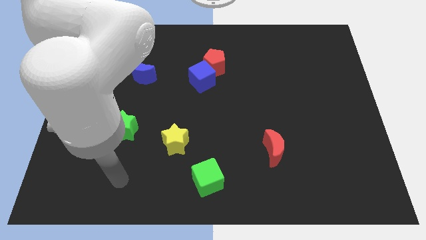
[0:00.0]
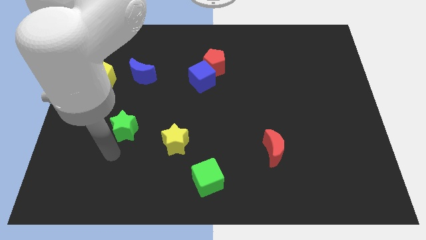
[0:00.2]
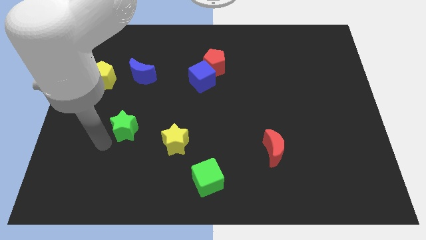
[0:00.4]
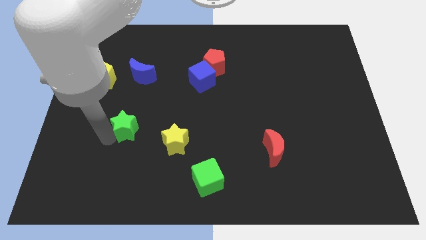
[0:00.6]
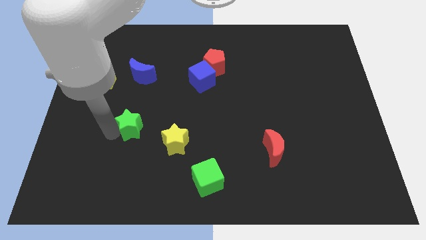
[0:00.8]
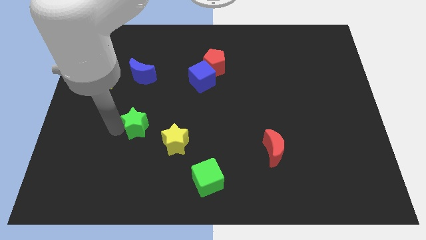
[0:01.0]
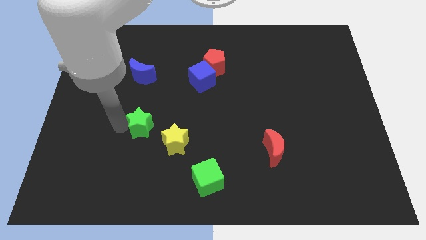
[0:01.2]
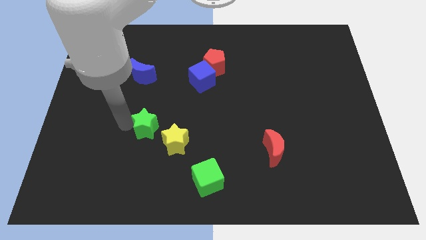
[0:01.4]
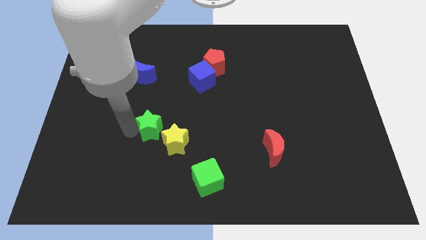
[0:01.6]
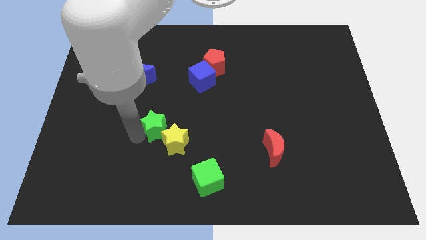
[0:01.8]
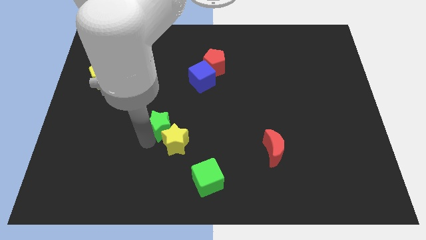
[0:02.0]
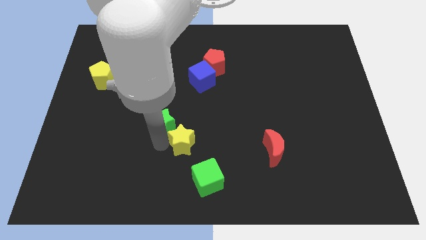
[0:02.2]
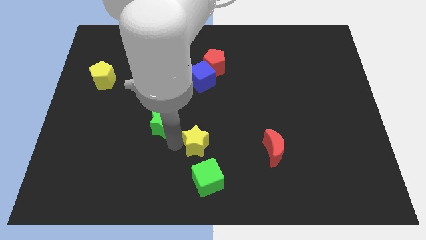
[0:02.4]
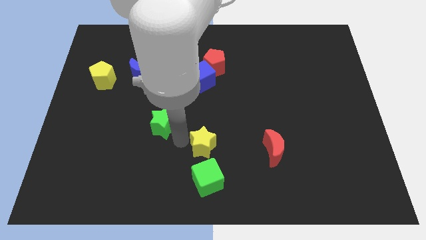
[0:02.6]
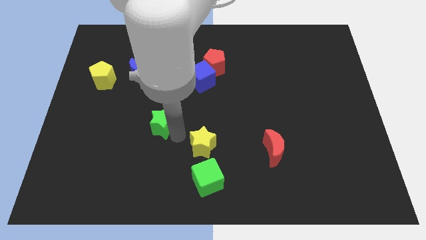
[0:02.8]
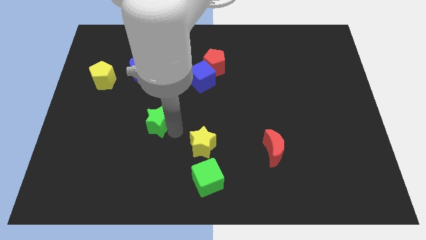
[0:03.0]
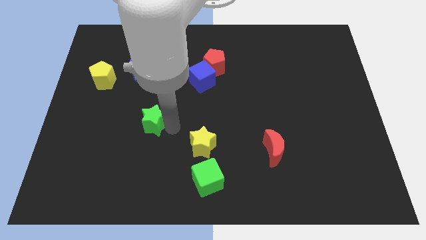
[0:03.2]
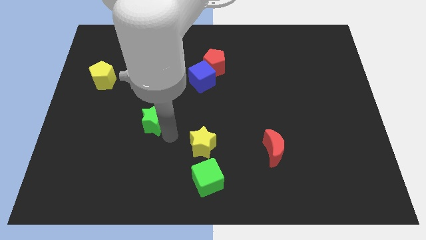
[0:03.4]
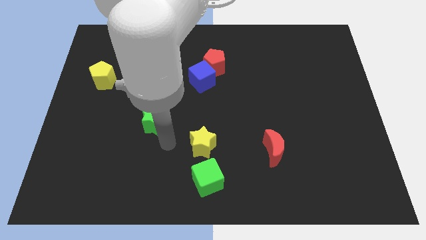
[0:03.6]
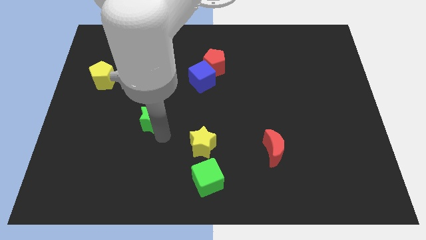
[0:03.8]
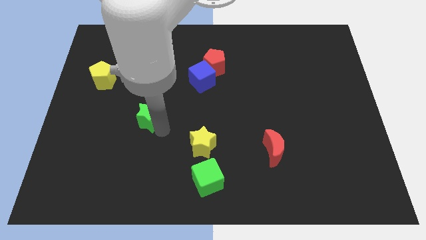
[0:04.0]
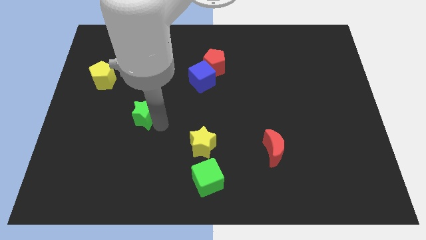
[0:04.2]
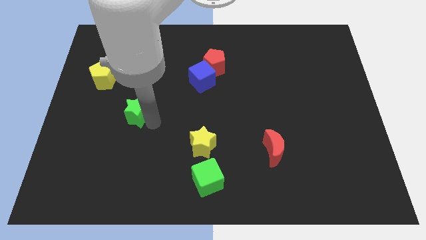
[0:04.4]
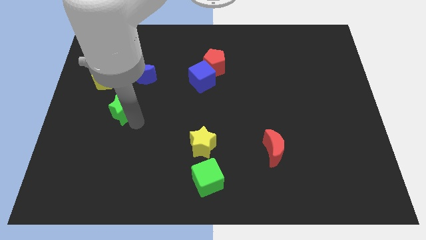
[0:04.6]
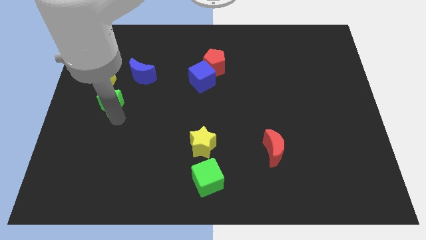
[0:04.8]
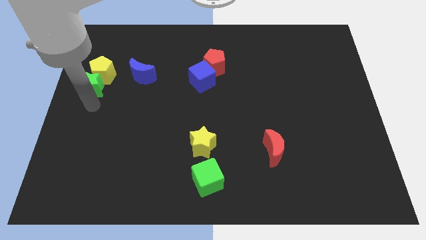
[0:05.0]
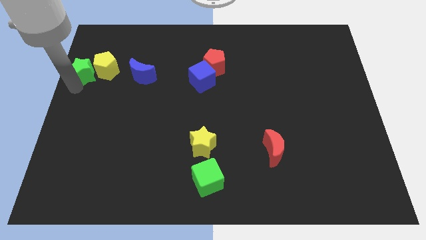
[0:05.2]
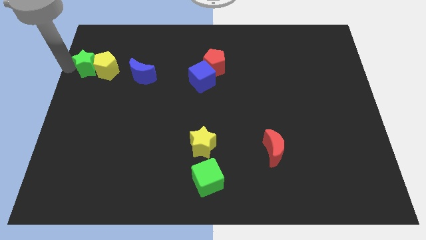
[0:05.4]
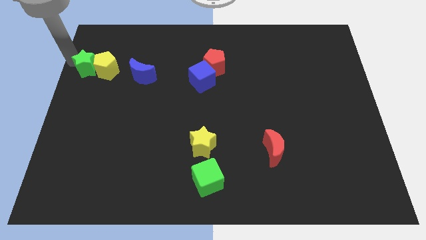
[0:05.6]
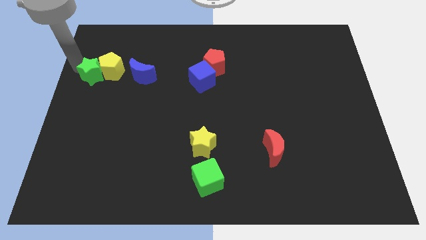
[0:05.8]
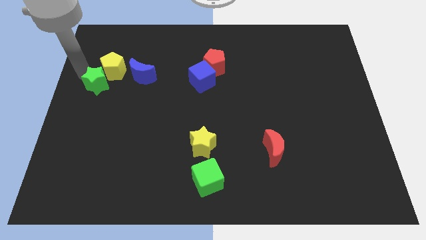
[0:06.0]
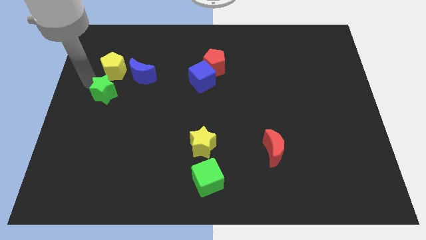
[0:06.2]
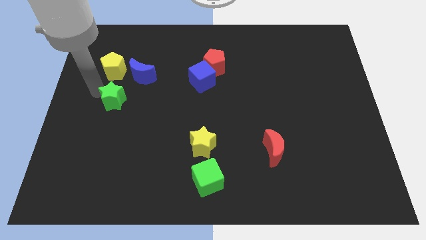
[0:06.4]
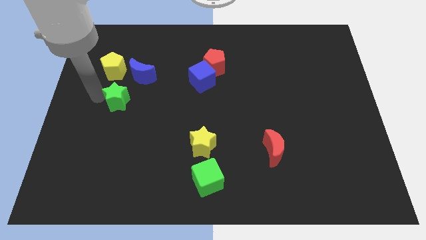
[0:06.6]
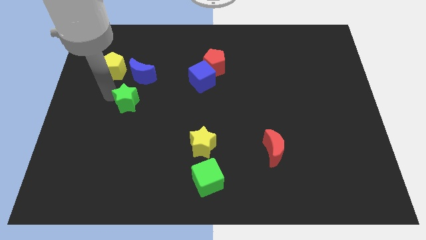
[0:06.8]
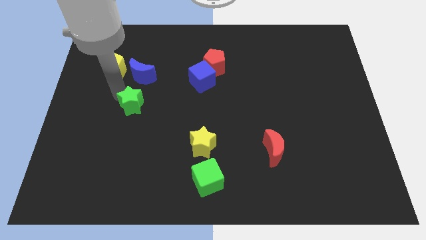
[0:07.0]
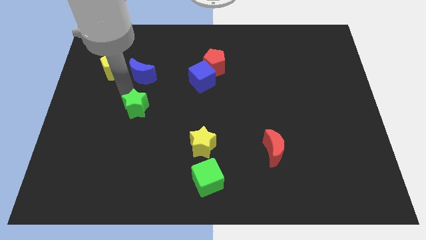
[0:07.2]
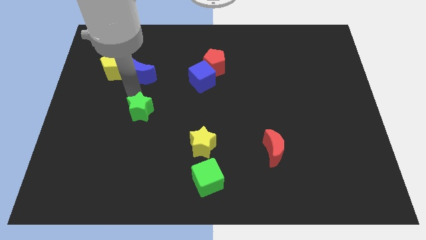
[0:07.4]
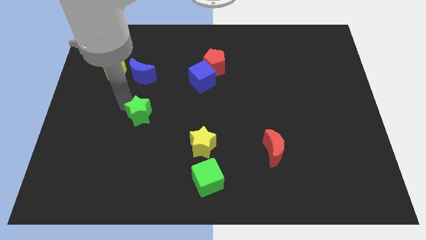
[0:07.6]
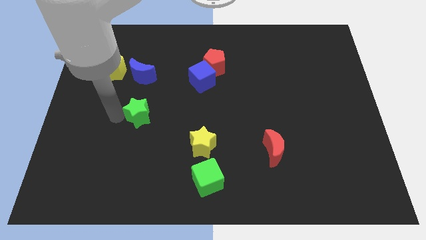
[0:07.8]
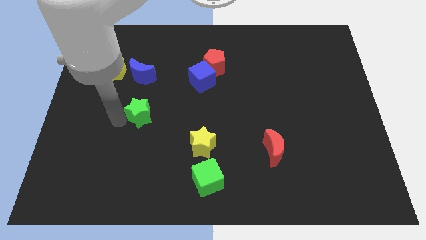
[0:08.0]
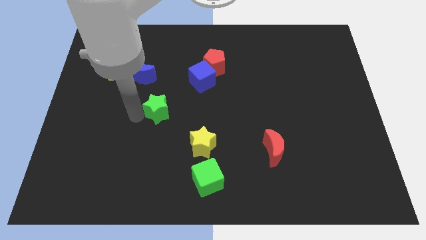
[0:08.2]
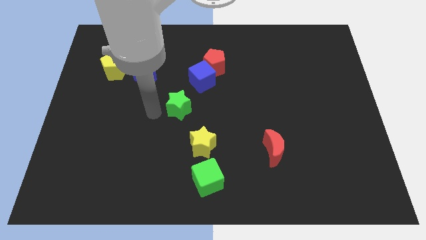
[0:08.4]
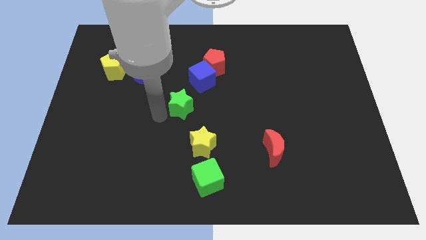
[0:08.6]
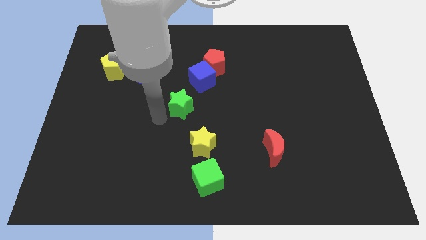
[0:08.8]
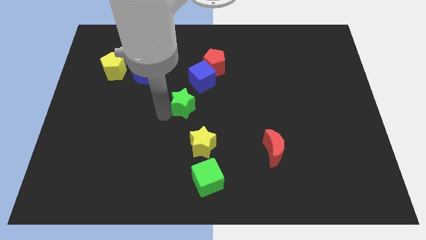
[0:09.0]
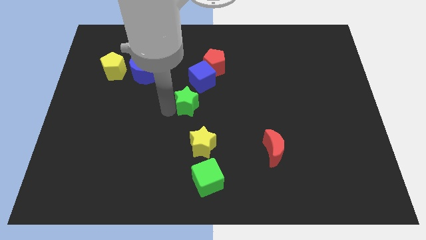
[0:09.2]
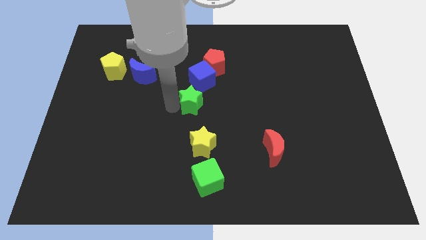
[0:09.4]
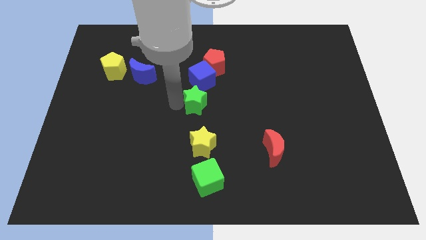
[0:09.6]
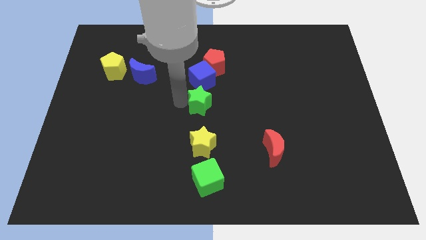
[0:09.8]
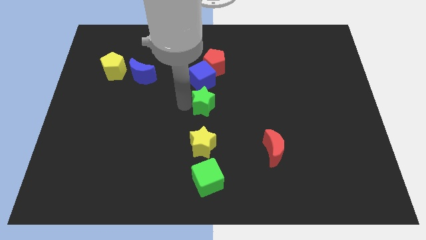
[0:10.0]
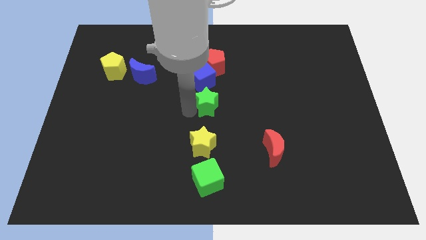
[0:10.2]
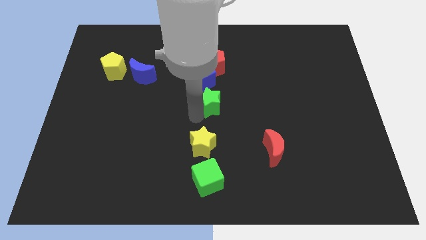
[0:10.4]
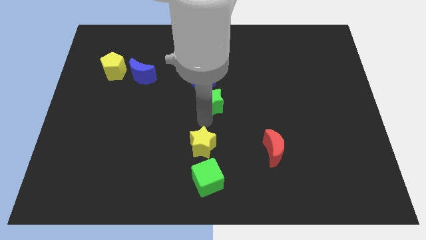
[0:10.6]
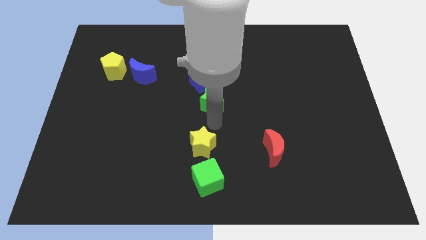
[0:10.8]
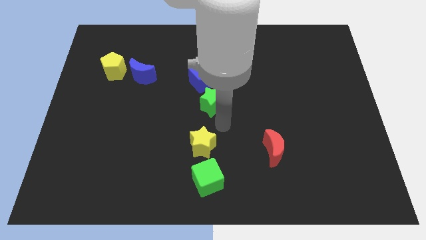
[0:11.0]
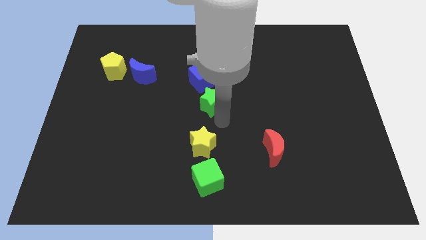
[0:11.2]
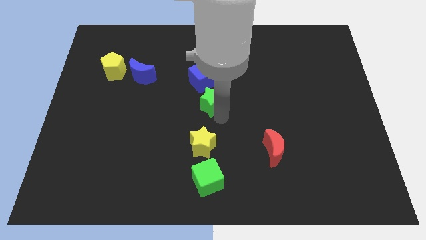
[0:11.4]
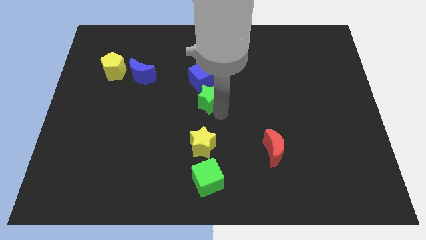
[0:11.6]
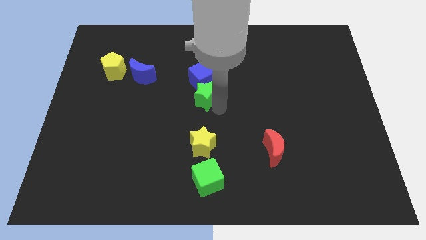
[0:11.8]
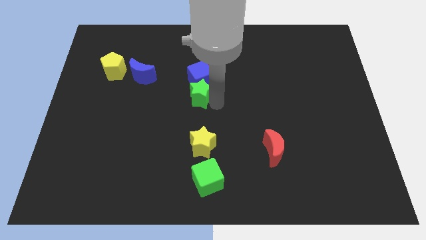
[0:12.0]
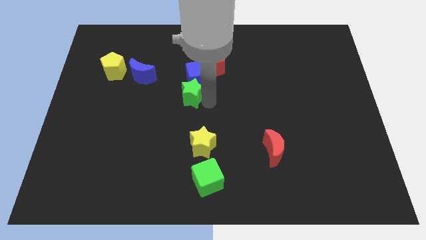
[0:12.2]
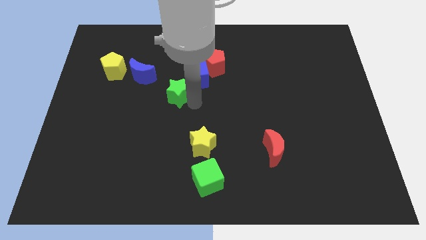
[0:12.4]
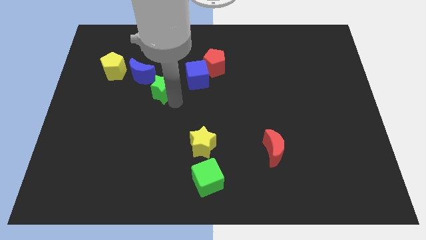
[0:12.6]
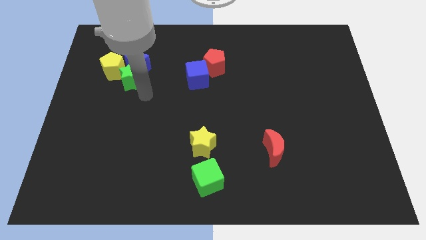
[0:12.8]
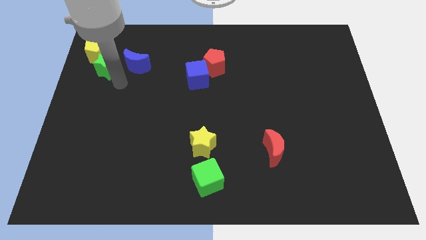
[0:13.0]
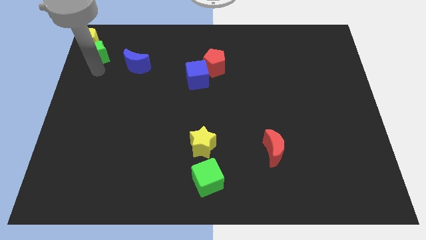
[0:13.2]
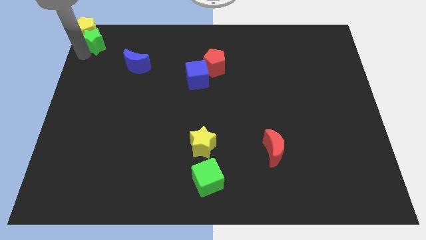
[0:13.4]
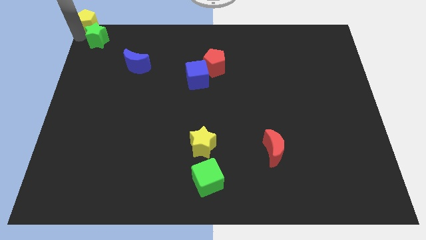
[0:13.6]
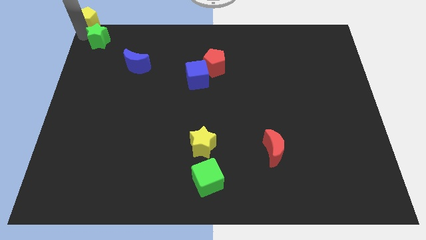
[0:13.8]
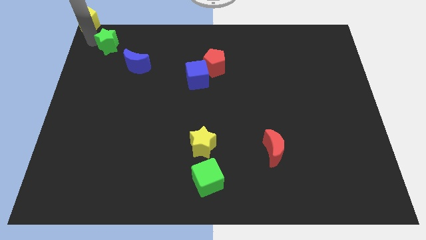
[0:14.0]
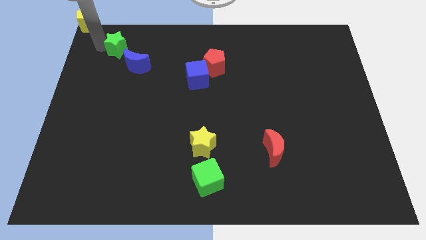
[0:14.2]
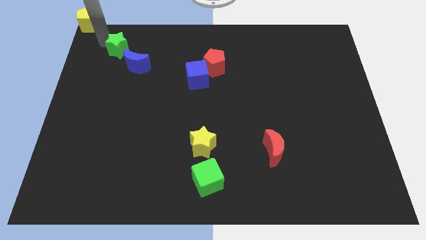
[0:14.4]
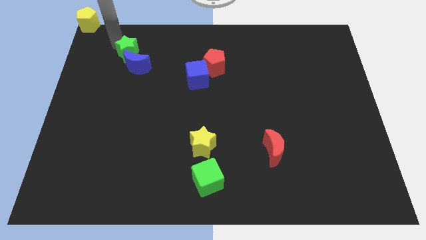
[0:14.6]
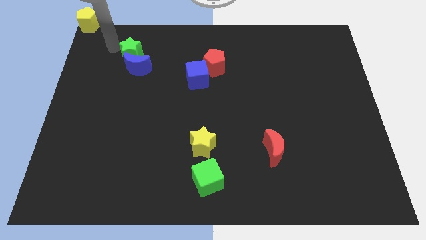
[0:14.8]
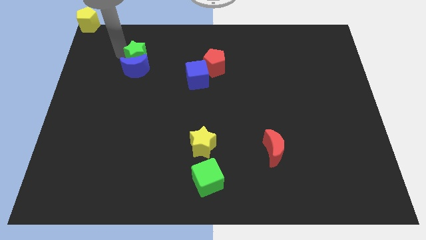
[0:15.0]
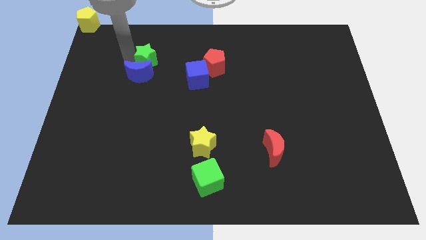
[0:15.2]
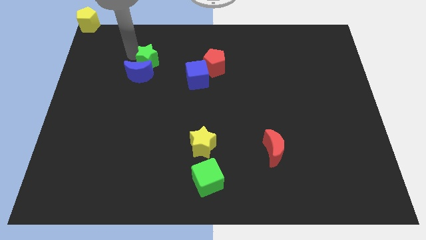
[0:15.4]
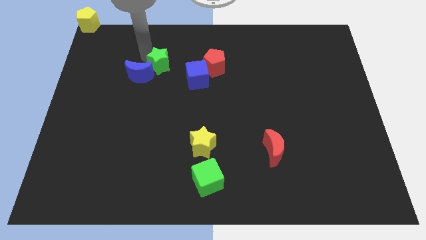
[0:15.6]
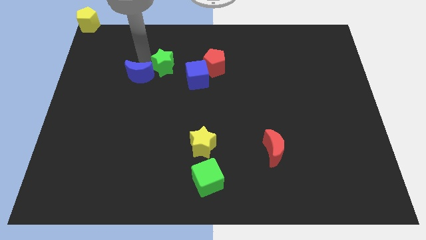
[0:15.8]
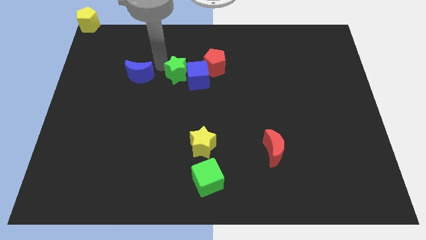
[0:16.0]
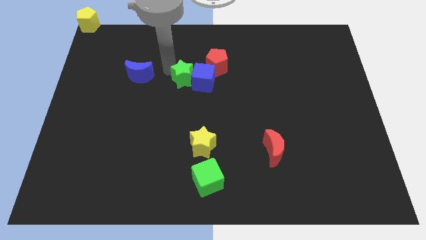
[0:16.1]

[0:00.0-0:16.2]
push the green star upwards and right diagonally

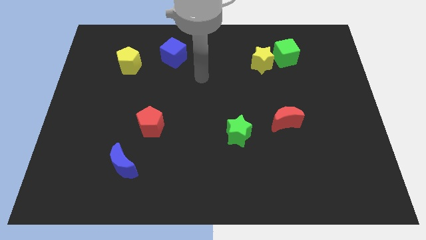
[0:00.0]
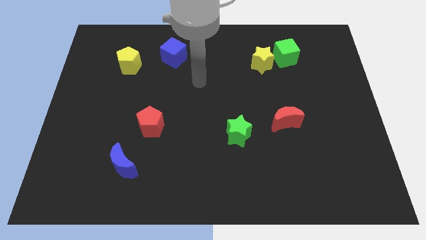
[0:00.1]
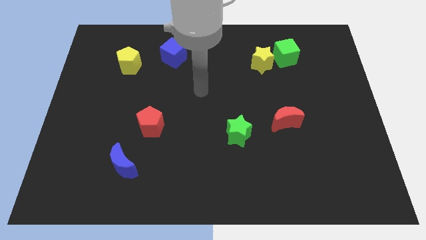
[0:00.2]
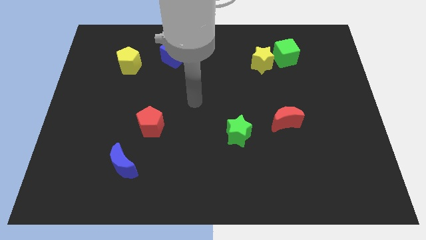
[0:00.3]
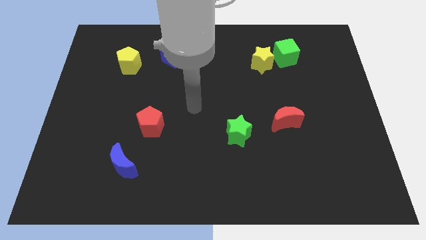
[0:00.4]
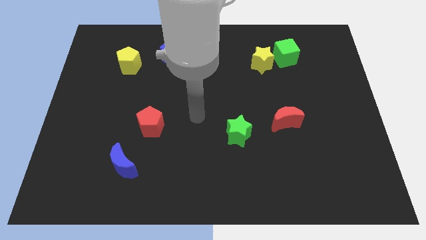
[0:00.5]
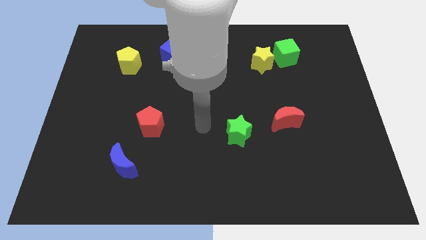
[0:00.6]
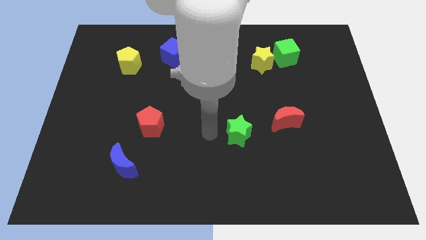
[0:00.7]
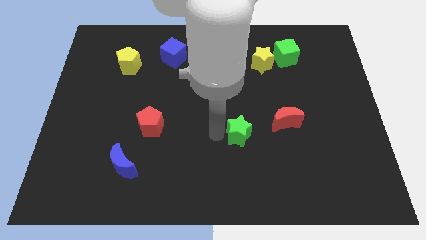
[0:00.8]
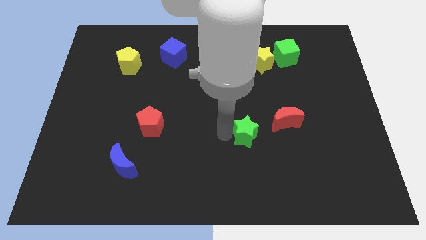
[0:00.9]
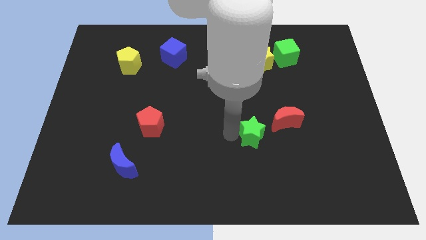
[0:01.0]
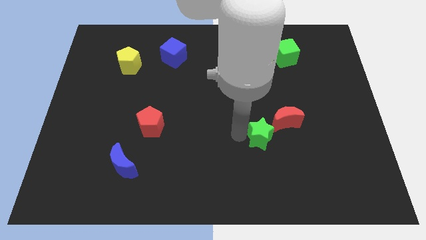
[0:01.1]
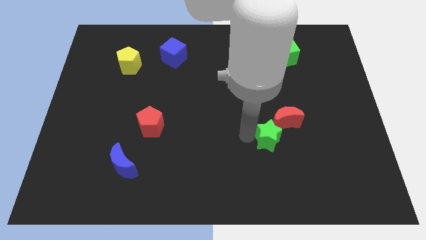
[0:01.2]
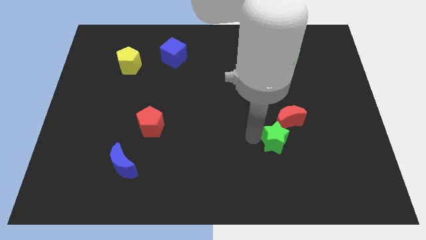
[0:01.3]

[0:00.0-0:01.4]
slightly push the green star to the right
